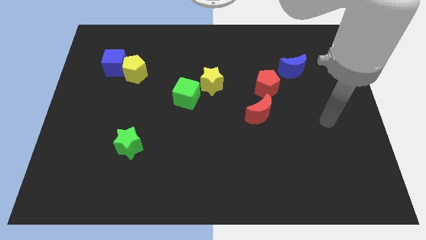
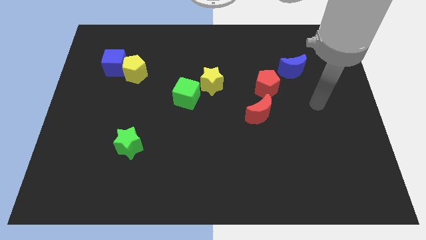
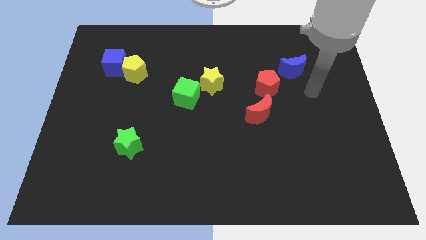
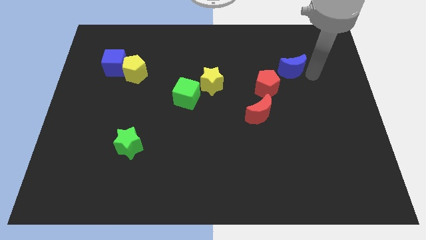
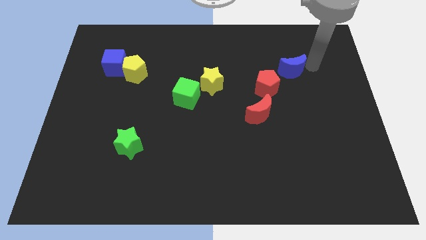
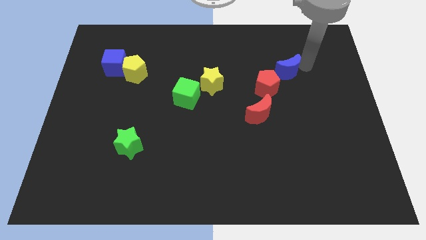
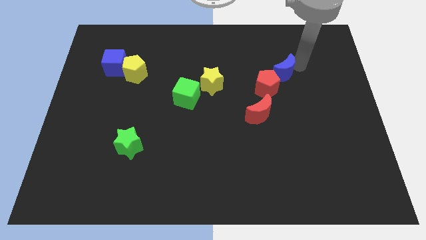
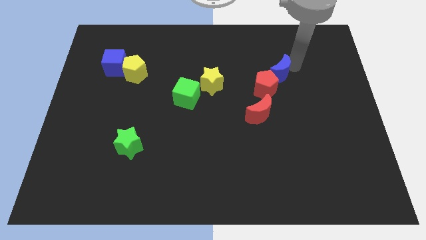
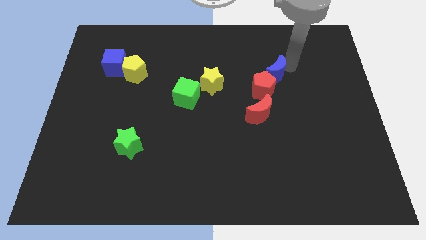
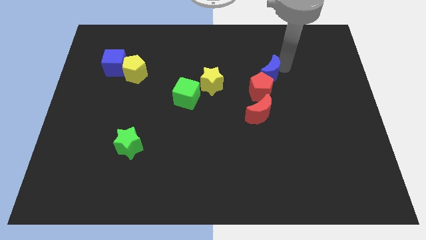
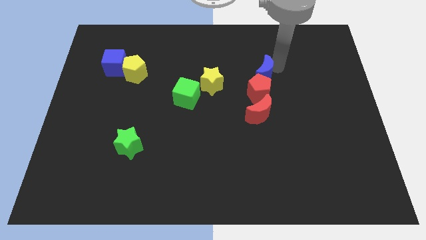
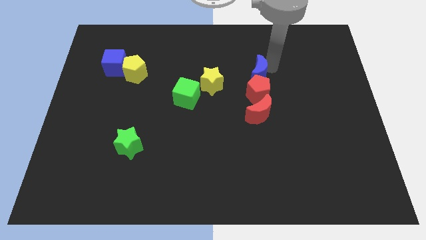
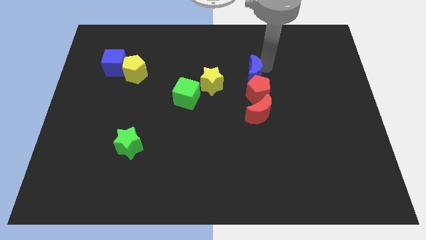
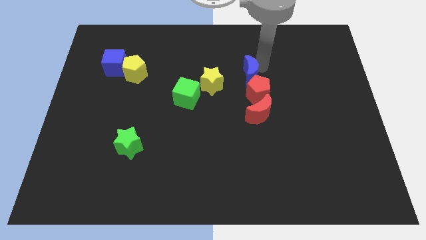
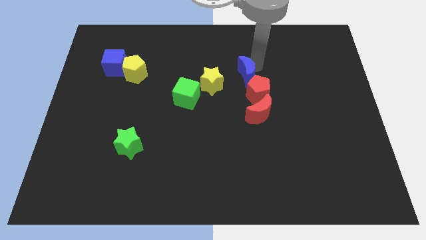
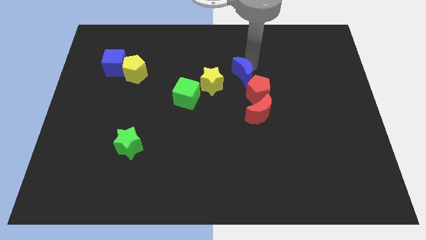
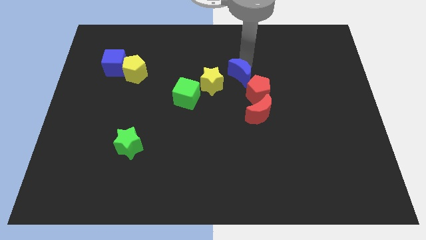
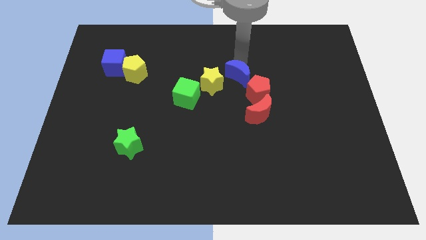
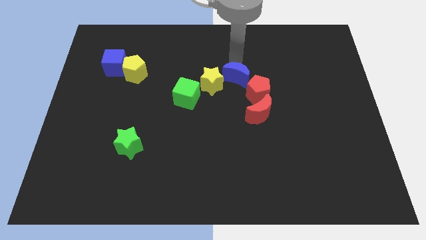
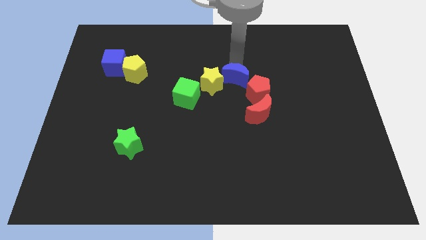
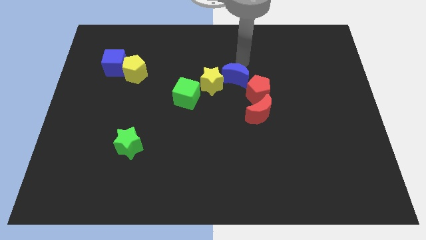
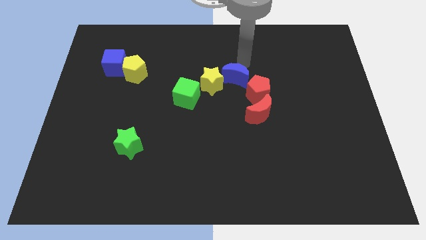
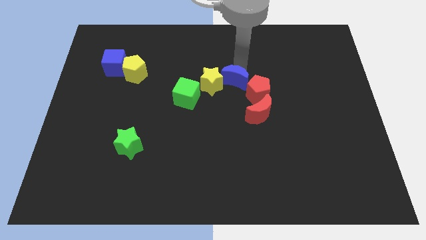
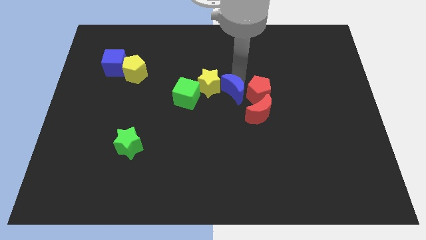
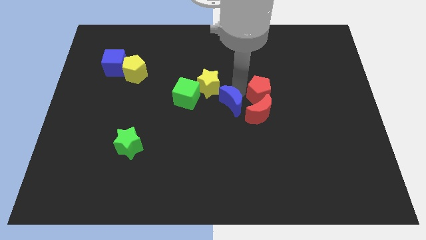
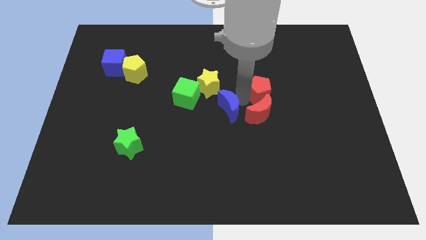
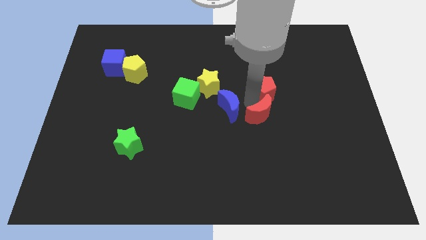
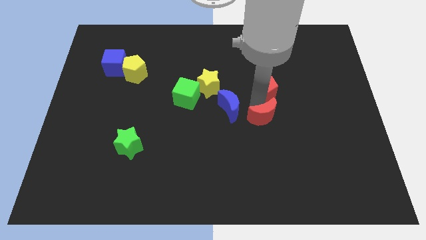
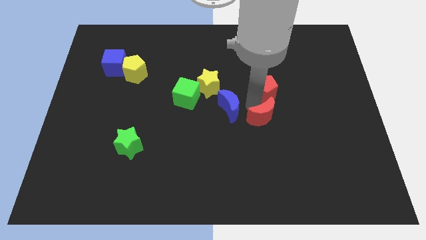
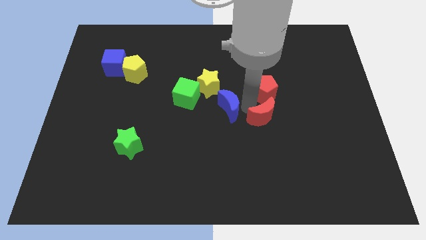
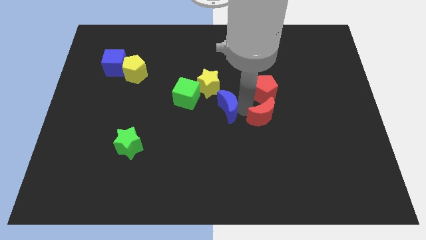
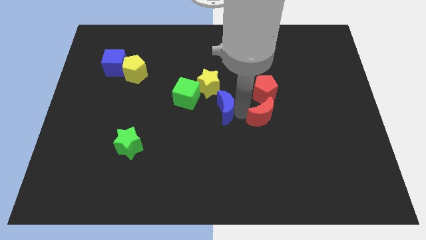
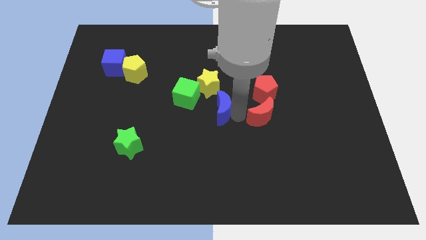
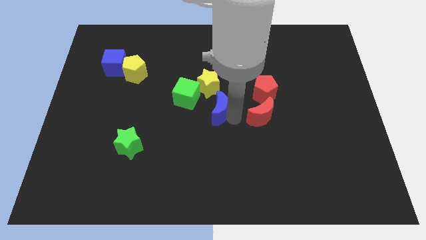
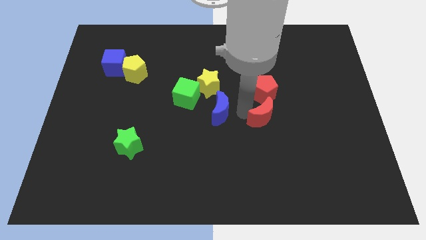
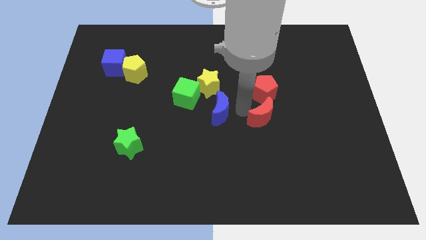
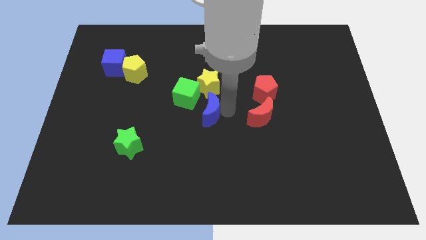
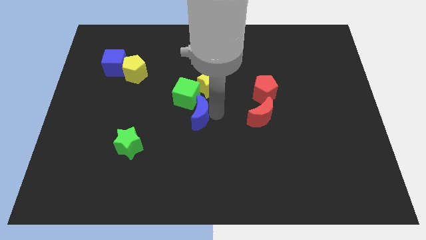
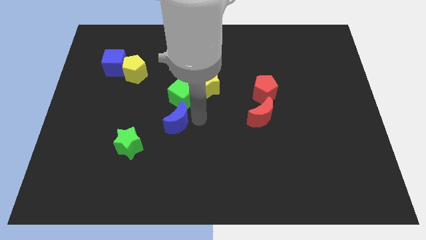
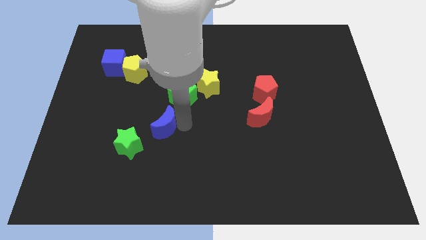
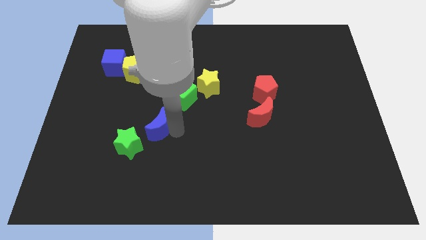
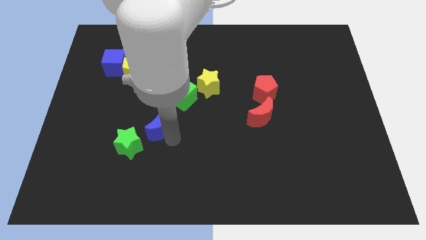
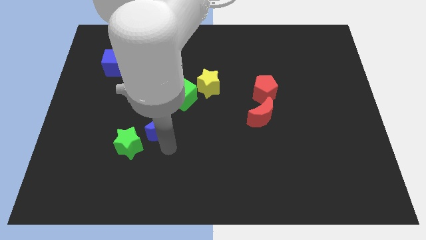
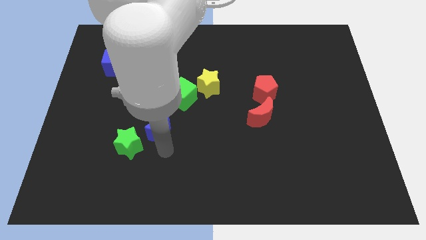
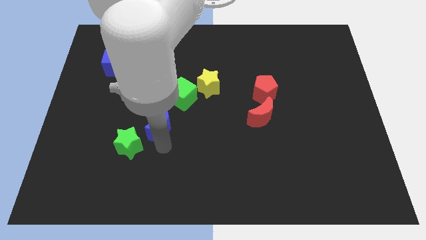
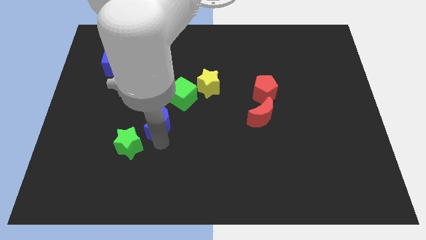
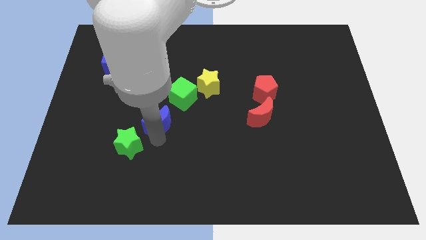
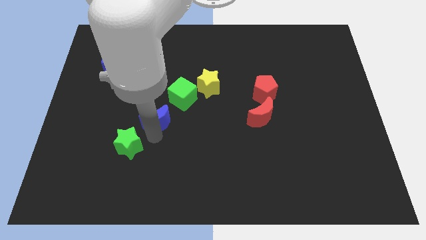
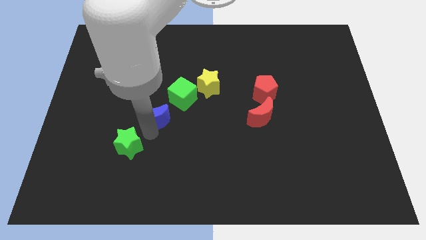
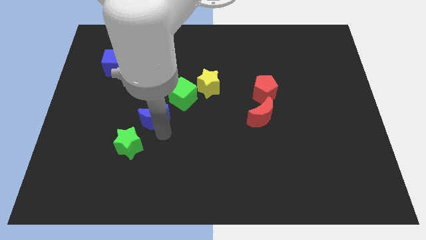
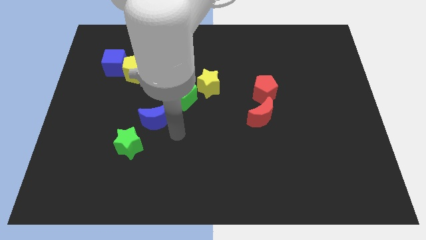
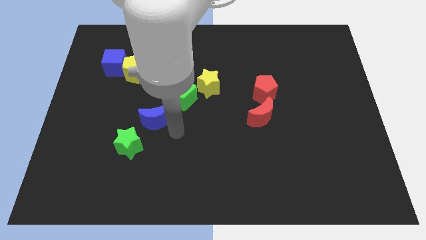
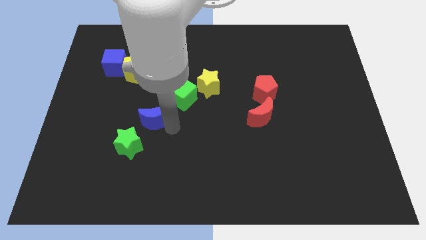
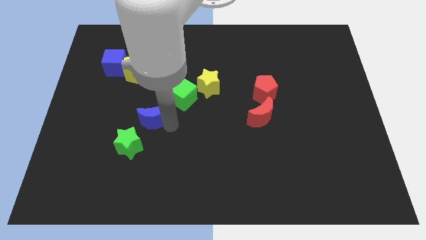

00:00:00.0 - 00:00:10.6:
put the blue moon to the top side of the green star

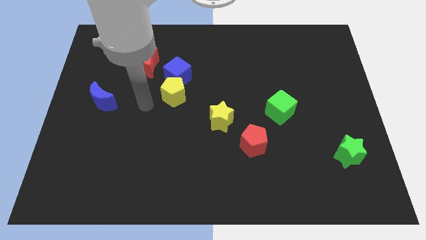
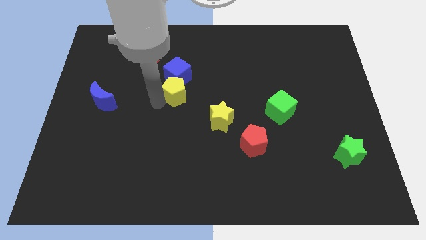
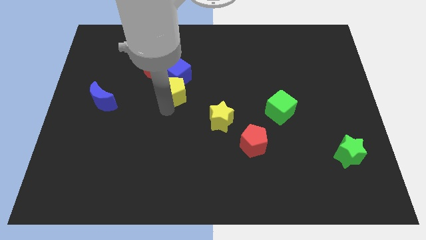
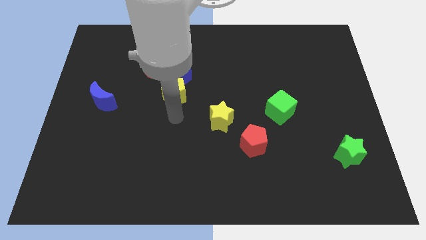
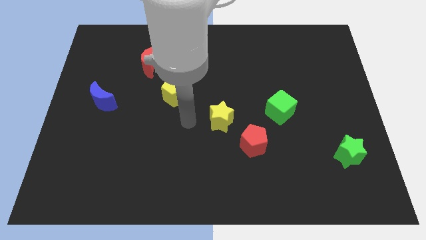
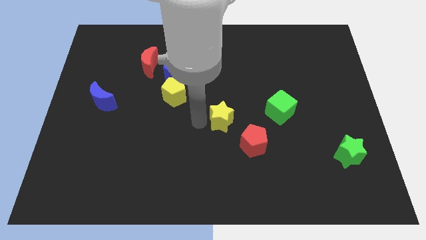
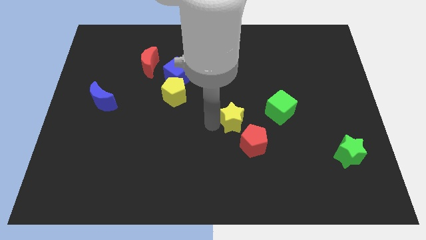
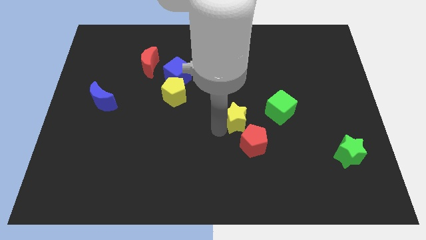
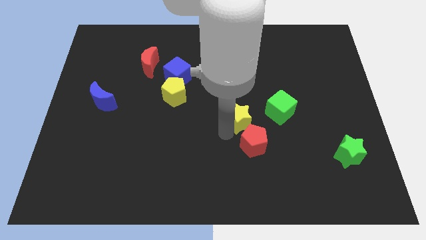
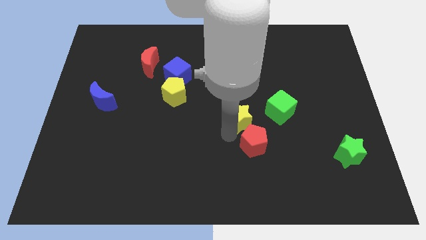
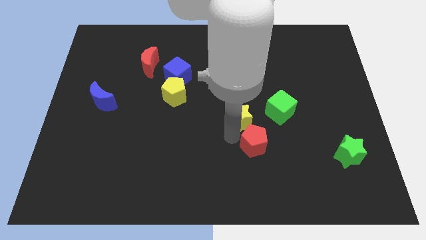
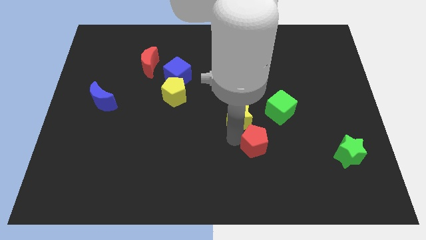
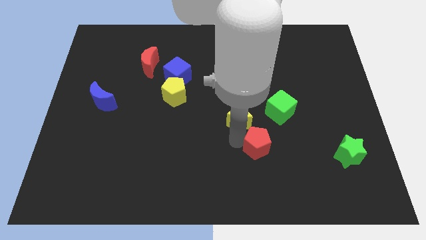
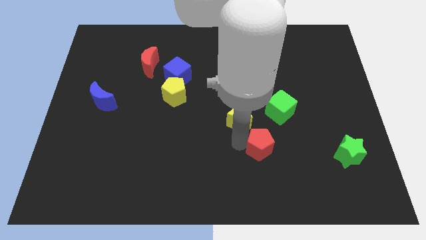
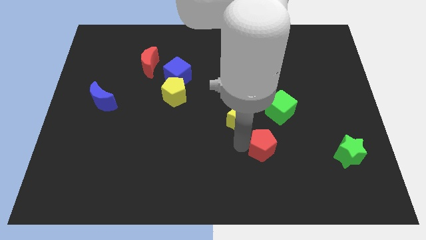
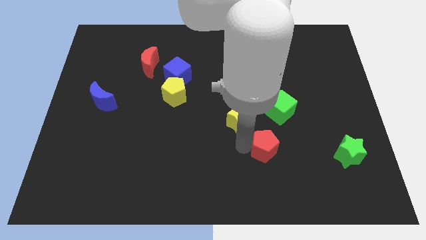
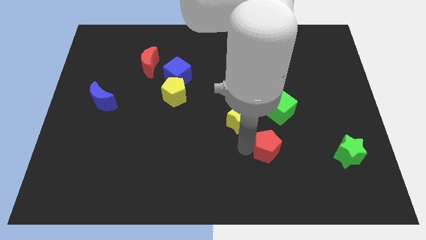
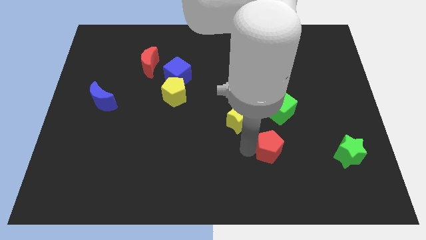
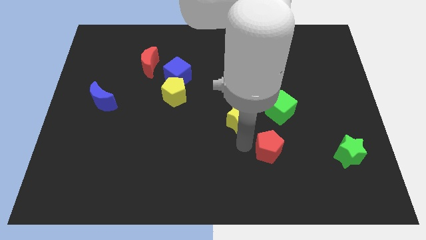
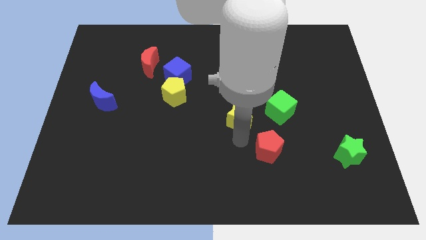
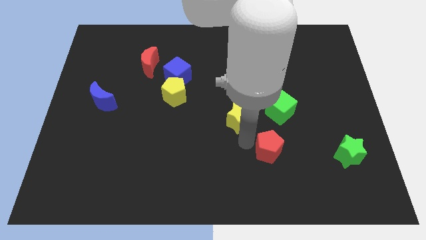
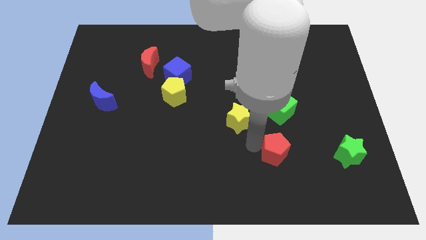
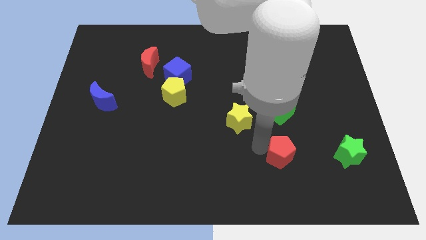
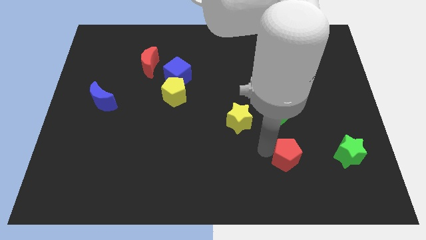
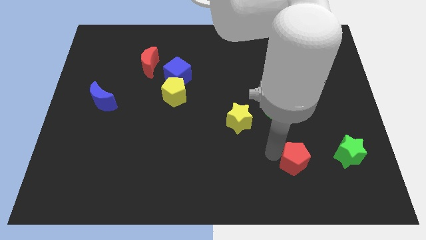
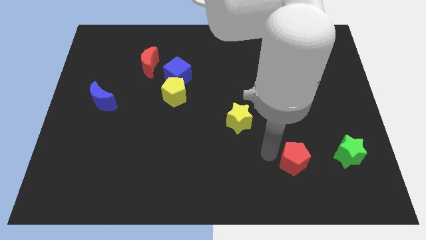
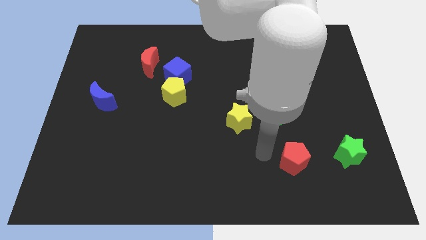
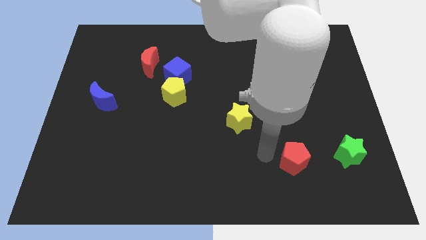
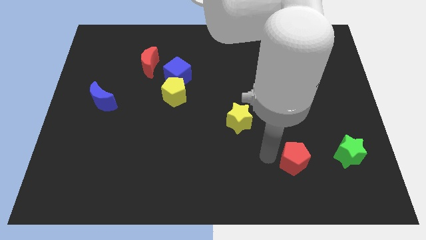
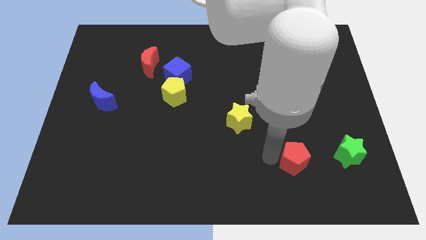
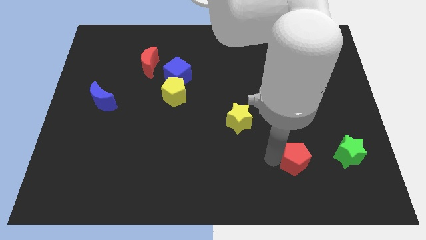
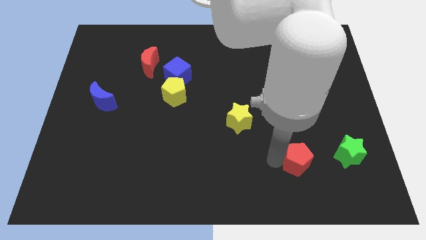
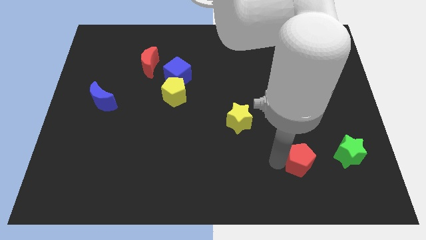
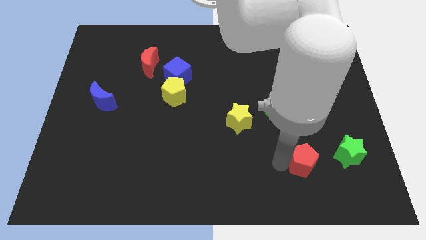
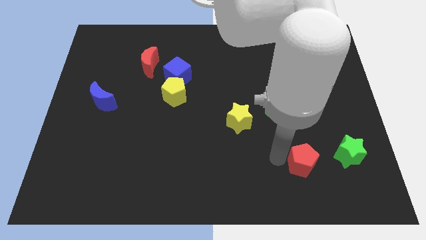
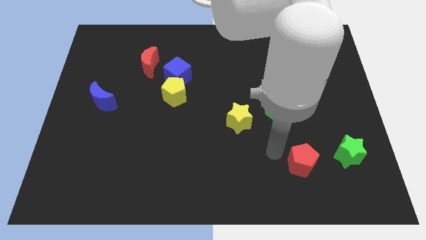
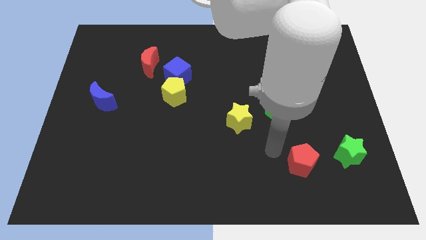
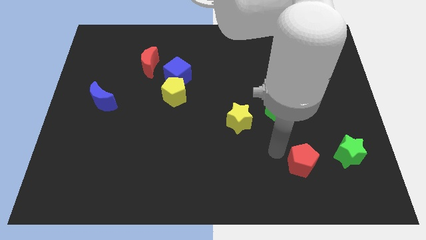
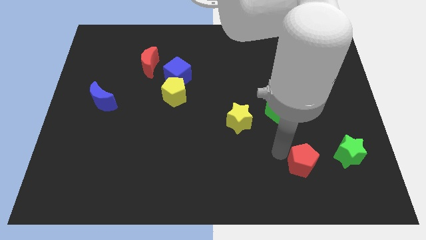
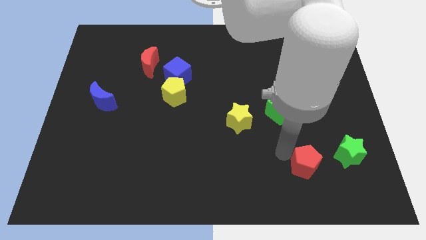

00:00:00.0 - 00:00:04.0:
move the red pentagon to the bottom left of the green star
